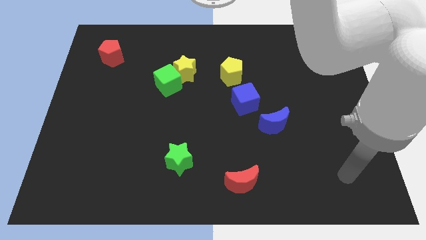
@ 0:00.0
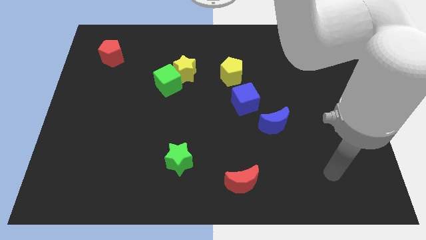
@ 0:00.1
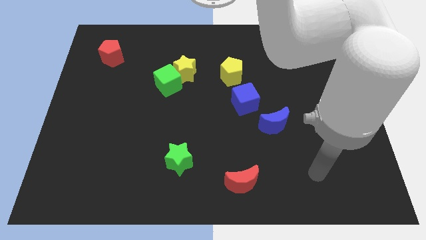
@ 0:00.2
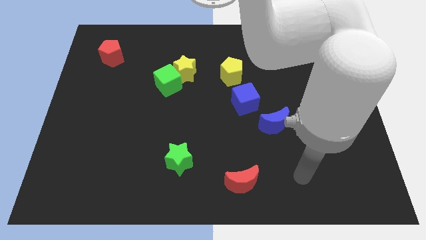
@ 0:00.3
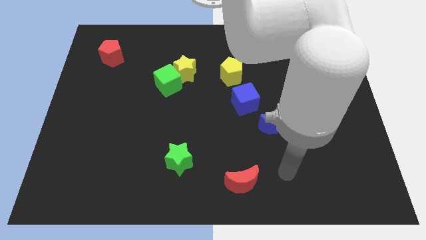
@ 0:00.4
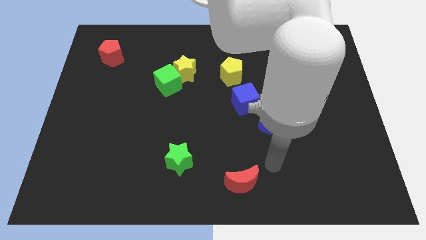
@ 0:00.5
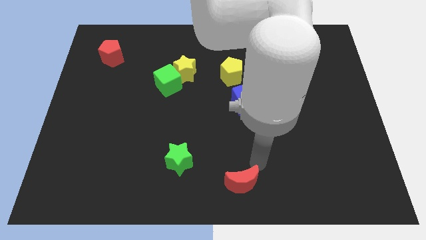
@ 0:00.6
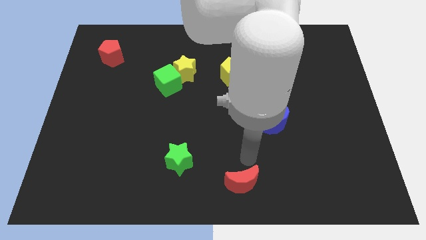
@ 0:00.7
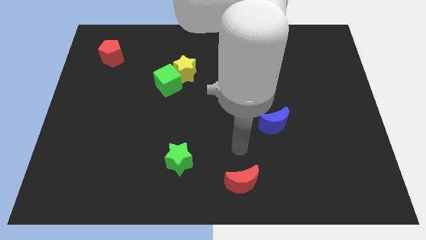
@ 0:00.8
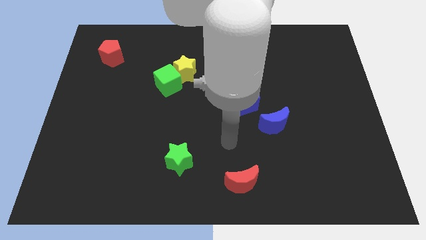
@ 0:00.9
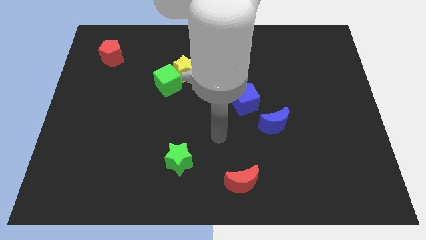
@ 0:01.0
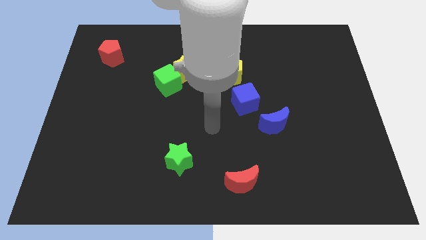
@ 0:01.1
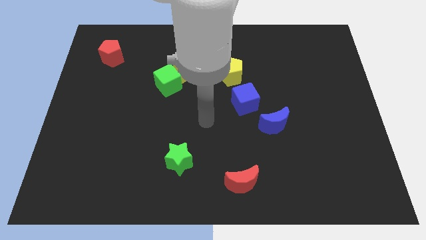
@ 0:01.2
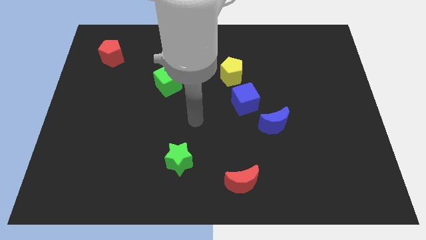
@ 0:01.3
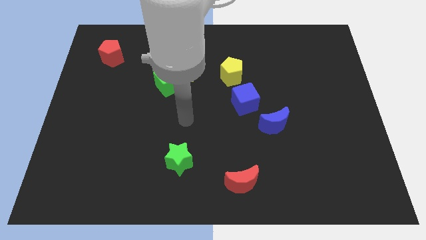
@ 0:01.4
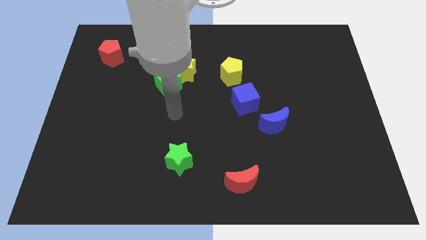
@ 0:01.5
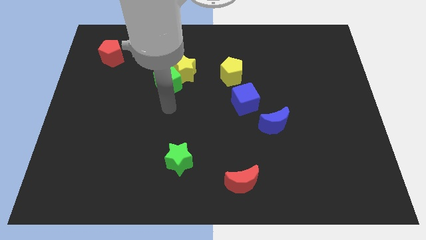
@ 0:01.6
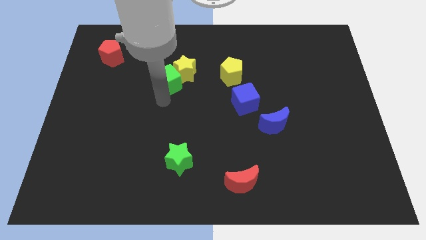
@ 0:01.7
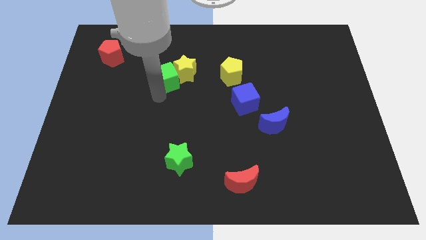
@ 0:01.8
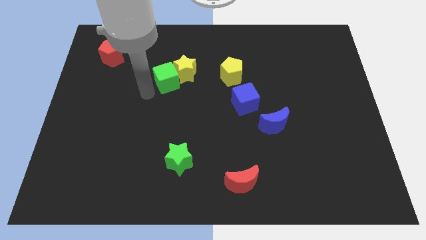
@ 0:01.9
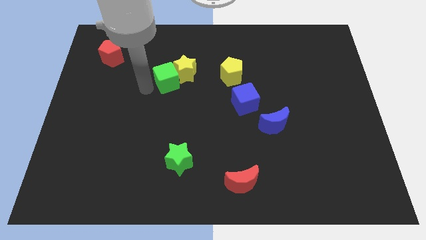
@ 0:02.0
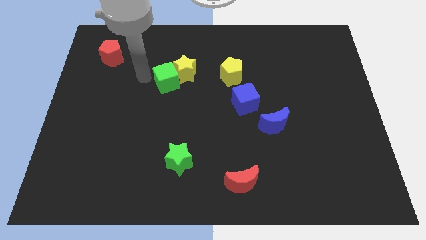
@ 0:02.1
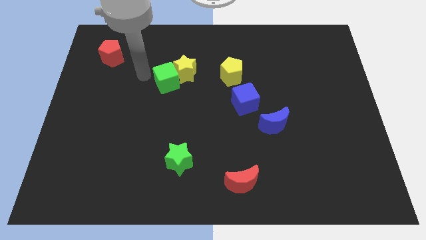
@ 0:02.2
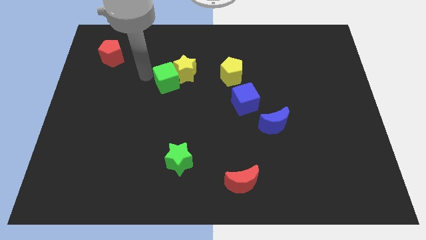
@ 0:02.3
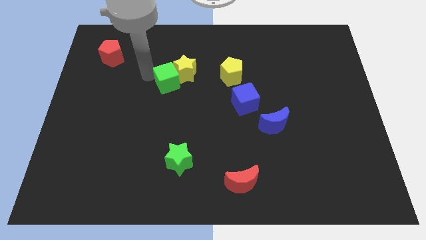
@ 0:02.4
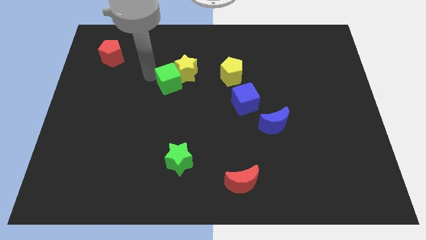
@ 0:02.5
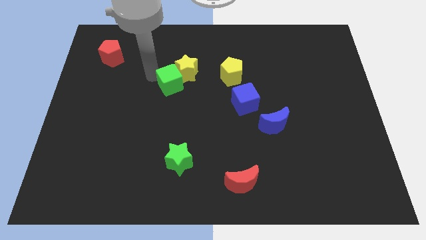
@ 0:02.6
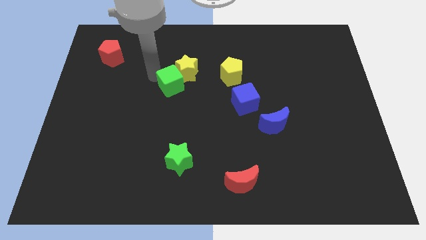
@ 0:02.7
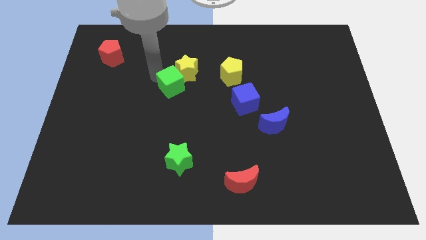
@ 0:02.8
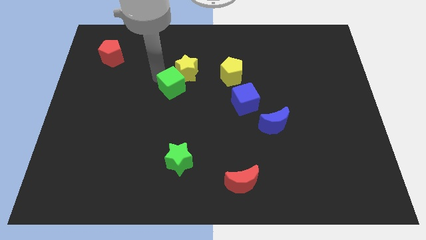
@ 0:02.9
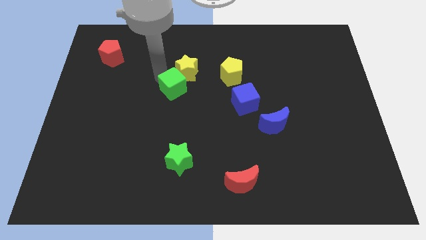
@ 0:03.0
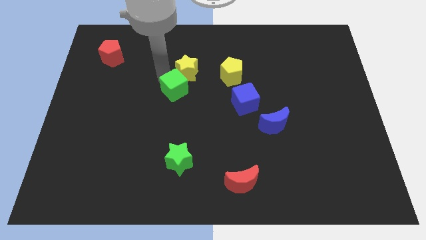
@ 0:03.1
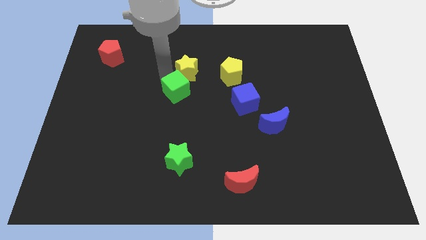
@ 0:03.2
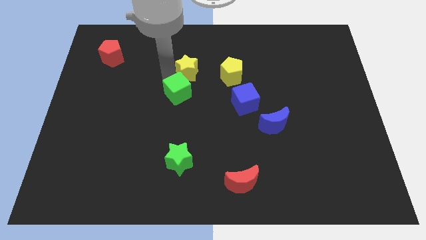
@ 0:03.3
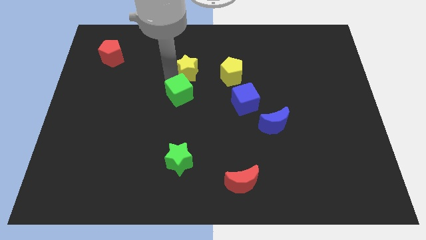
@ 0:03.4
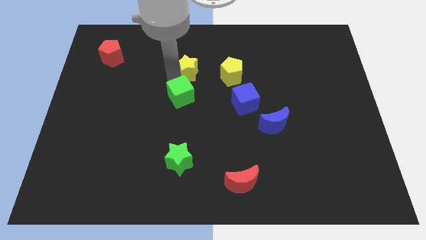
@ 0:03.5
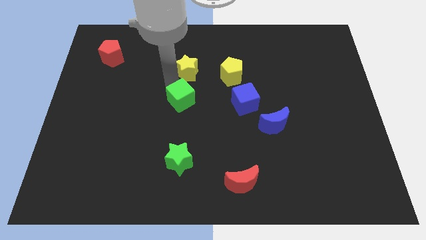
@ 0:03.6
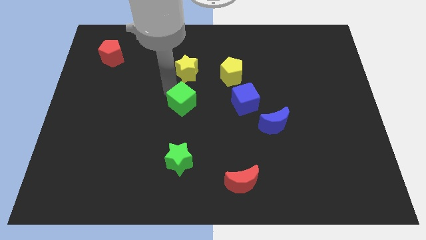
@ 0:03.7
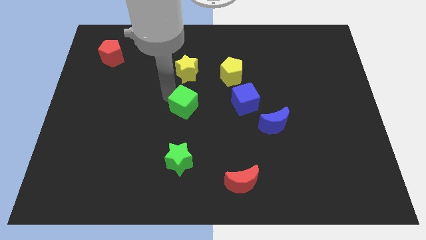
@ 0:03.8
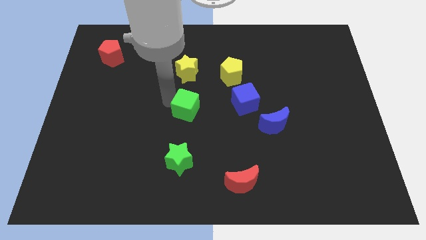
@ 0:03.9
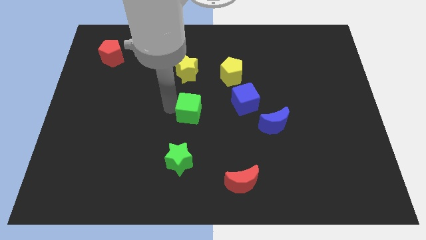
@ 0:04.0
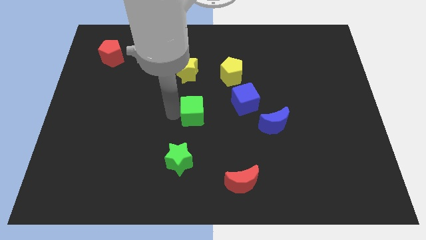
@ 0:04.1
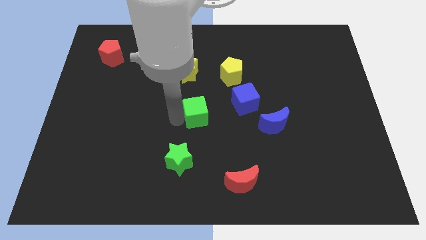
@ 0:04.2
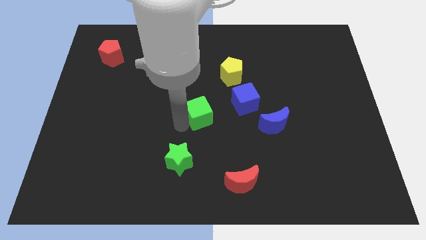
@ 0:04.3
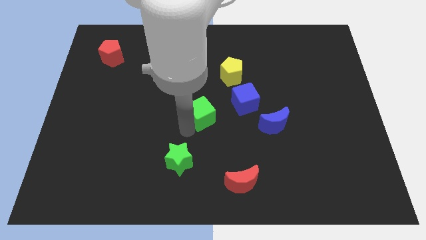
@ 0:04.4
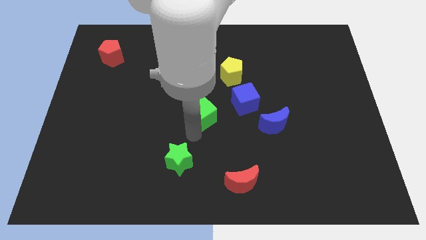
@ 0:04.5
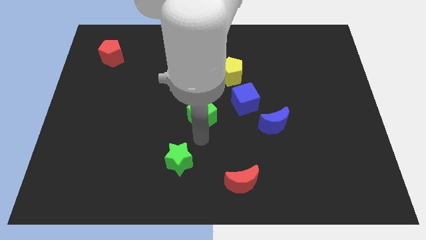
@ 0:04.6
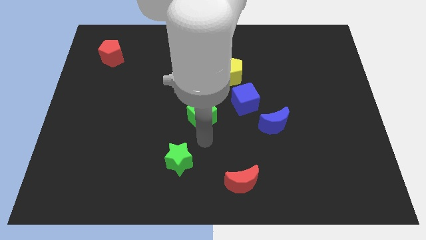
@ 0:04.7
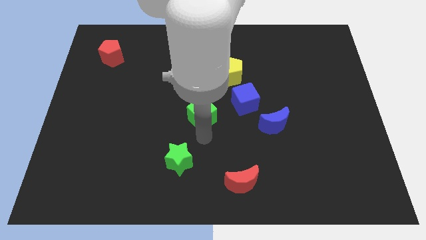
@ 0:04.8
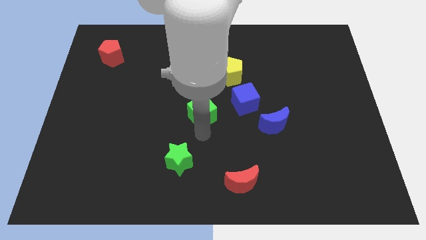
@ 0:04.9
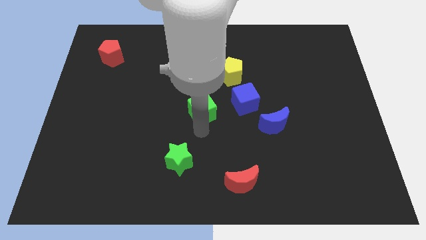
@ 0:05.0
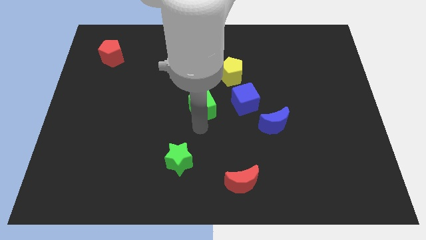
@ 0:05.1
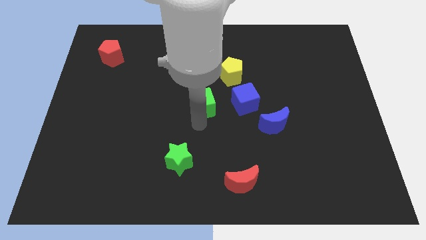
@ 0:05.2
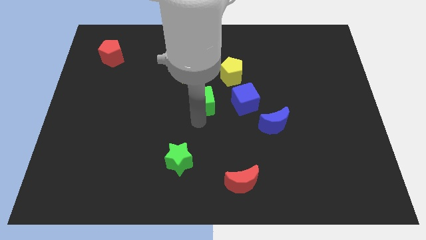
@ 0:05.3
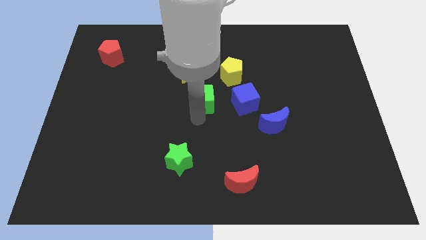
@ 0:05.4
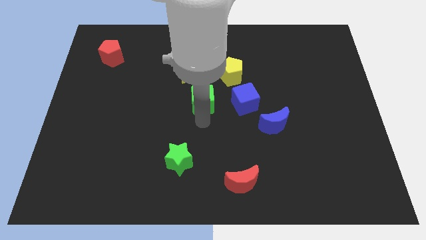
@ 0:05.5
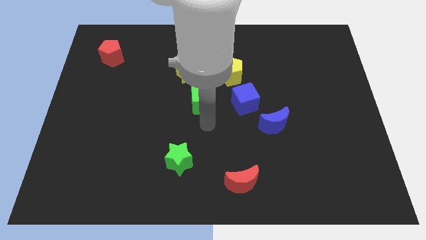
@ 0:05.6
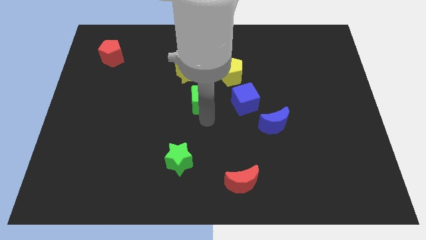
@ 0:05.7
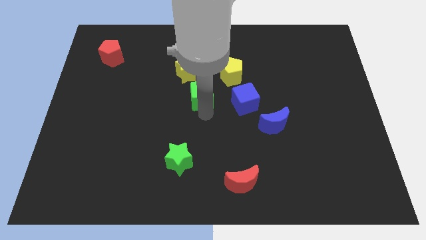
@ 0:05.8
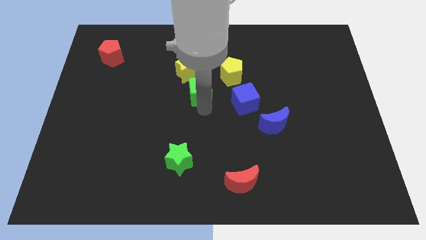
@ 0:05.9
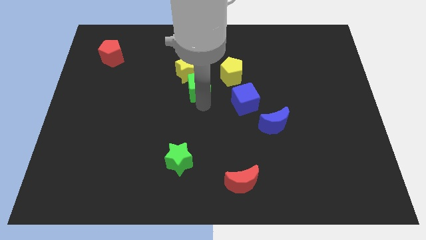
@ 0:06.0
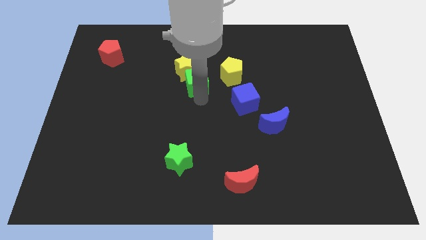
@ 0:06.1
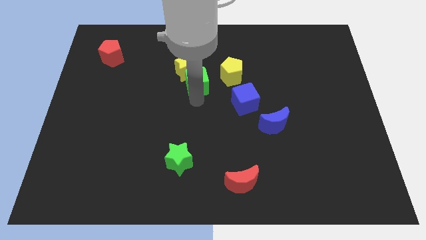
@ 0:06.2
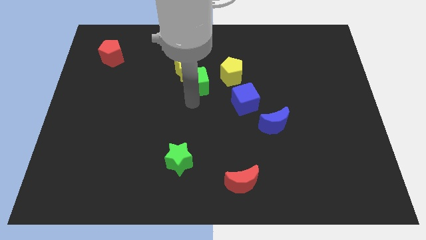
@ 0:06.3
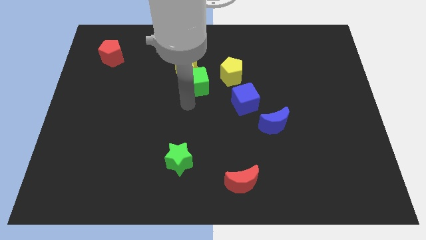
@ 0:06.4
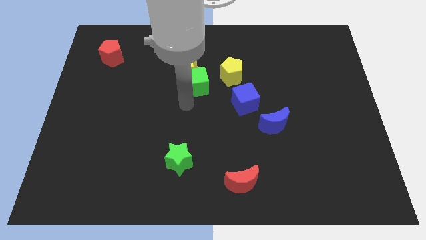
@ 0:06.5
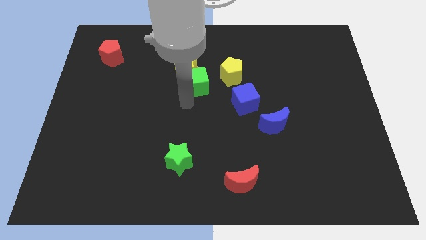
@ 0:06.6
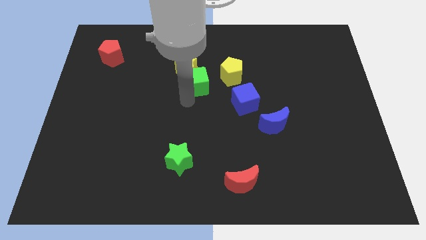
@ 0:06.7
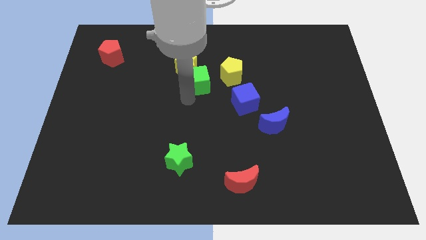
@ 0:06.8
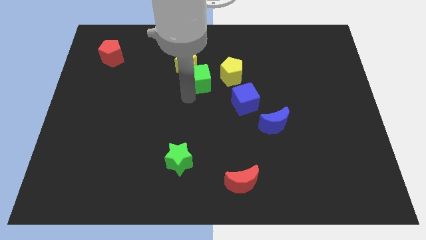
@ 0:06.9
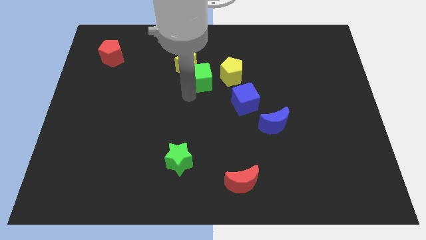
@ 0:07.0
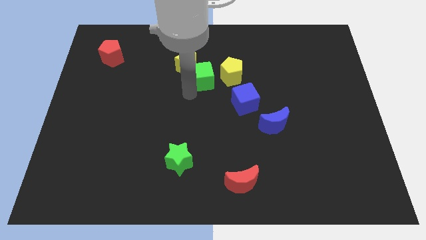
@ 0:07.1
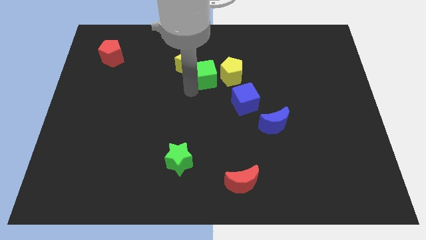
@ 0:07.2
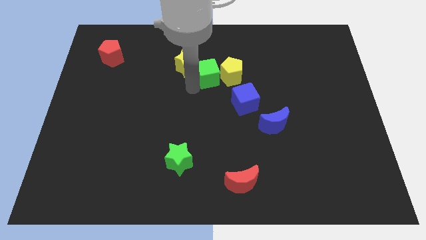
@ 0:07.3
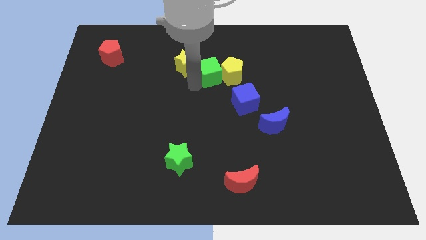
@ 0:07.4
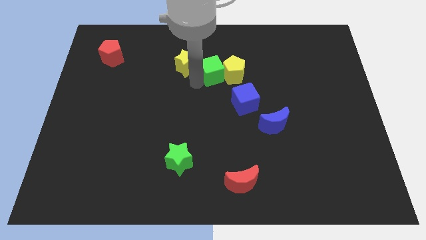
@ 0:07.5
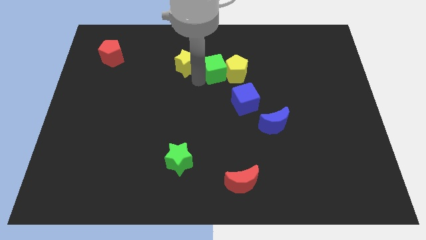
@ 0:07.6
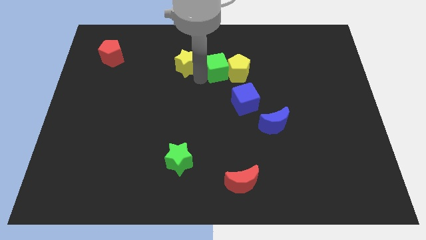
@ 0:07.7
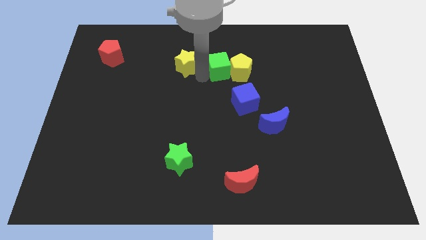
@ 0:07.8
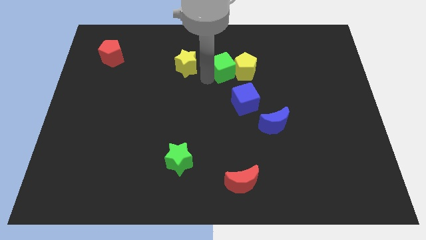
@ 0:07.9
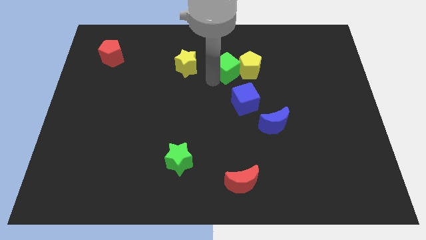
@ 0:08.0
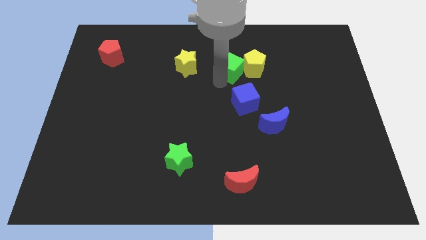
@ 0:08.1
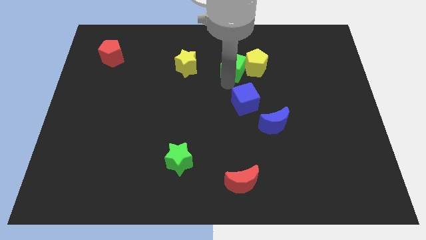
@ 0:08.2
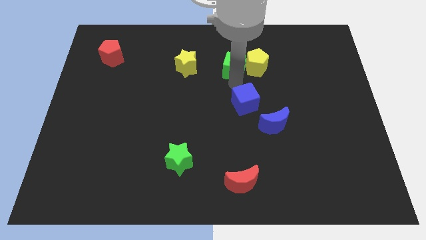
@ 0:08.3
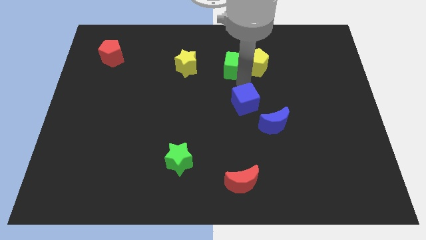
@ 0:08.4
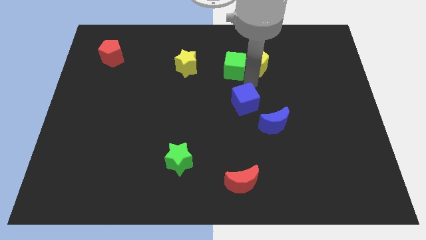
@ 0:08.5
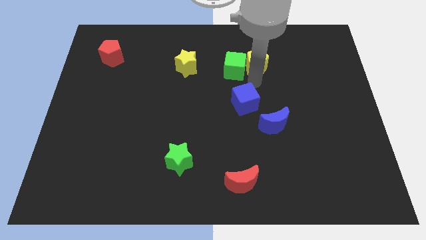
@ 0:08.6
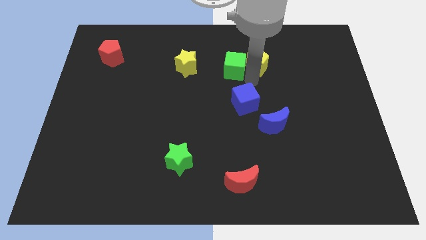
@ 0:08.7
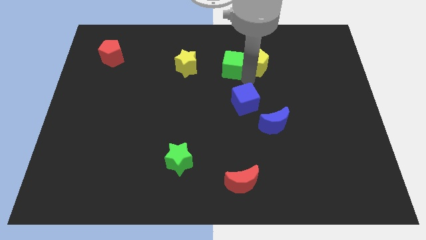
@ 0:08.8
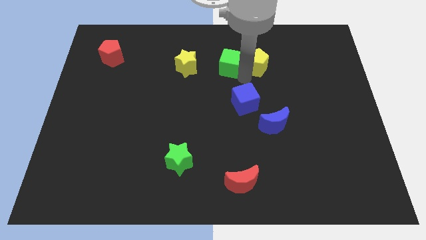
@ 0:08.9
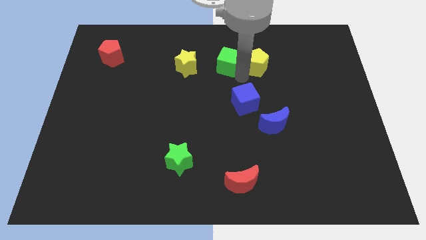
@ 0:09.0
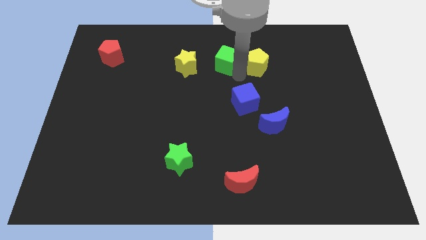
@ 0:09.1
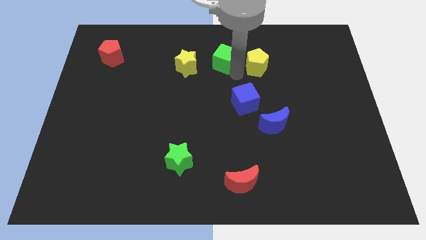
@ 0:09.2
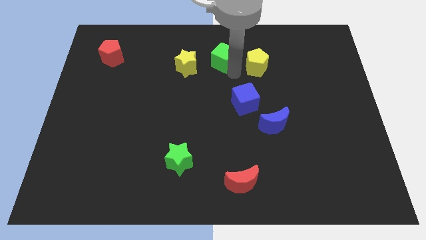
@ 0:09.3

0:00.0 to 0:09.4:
push the green cube to the top right of the yellow star
